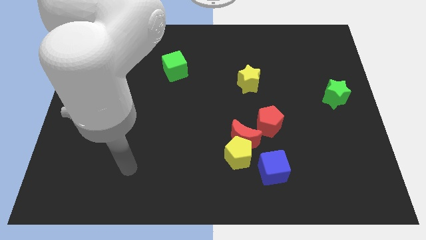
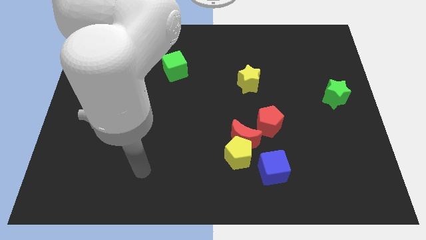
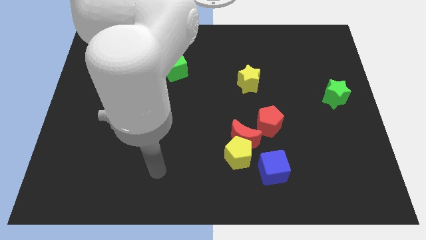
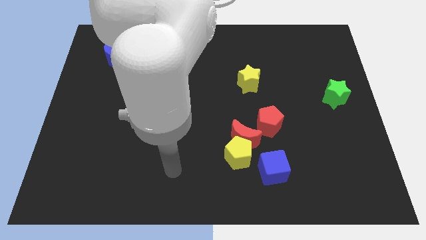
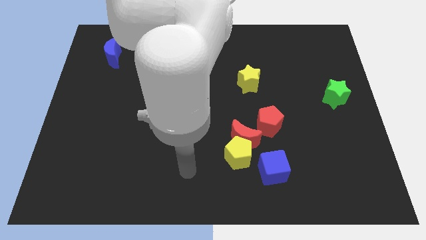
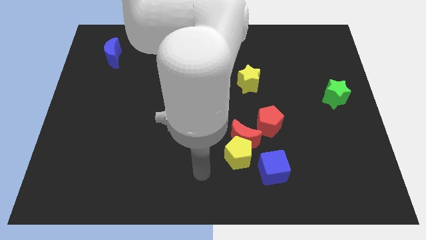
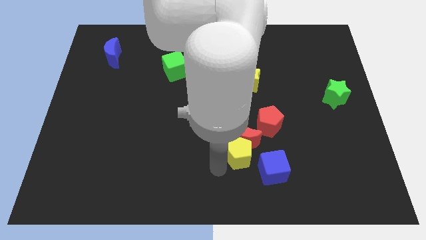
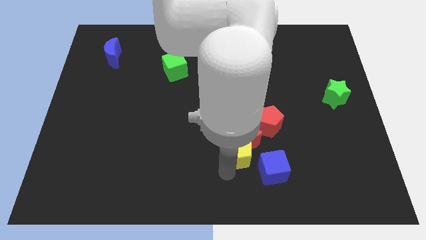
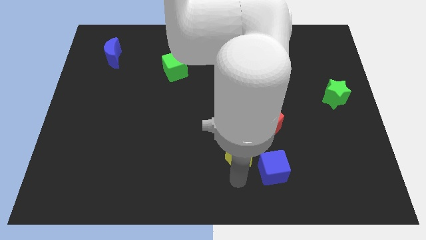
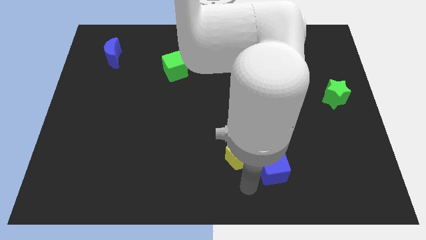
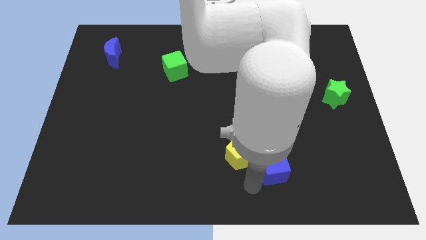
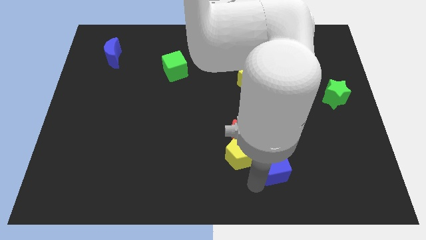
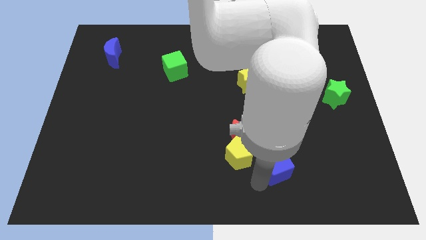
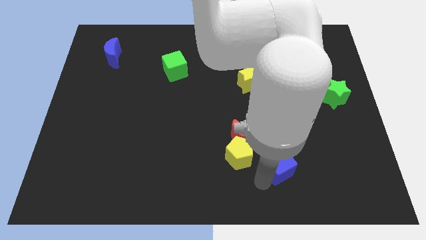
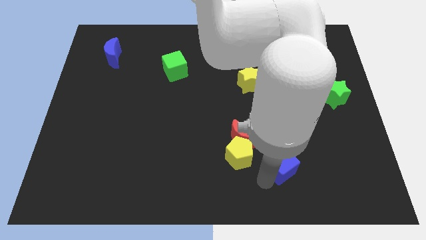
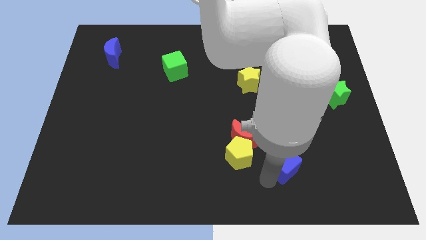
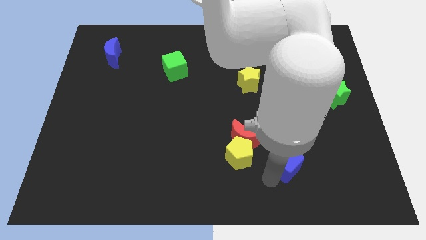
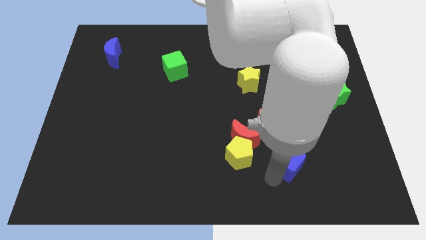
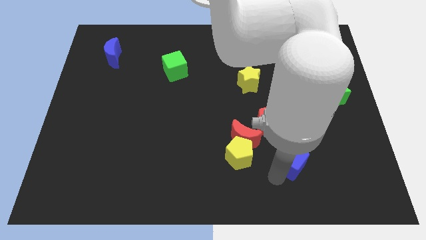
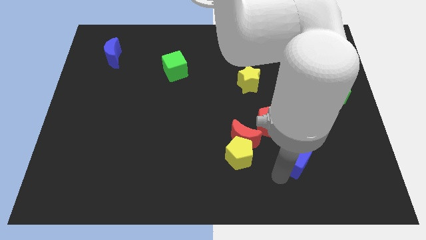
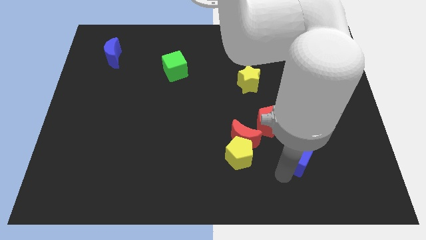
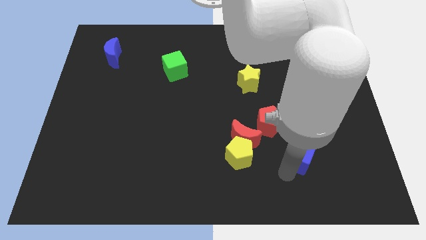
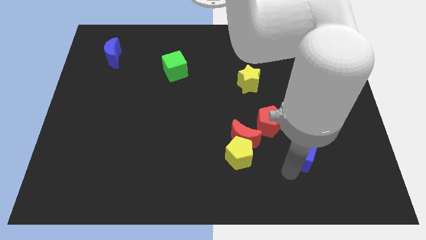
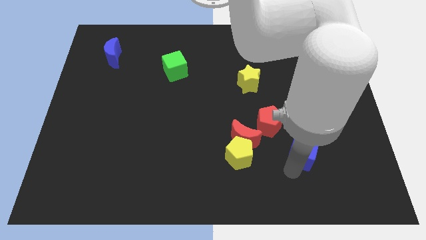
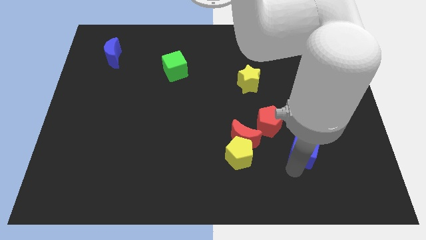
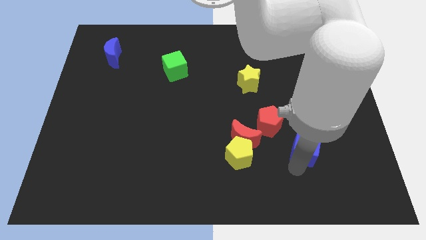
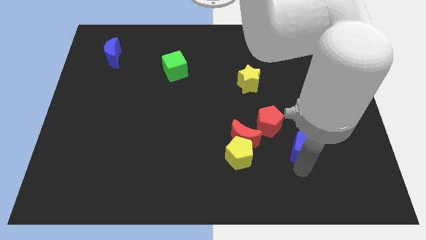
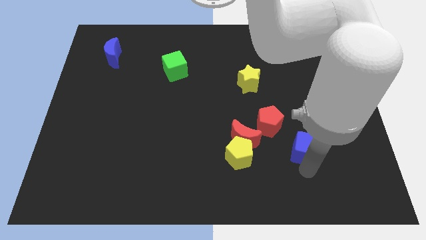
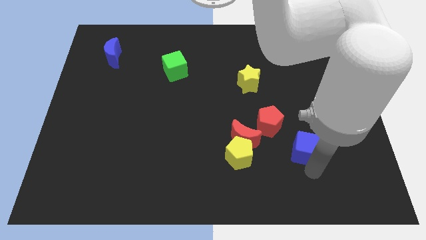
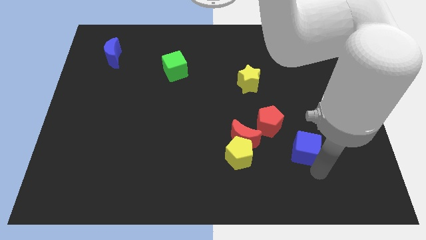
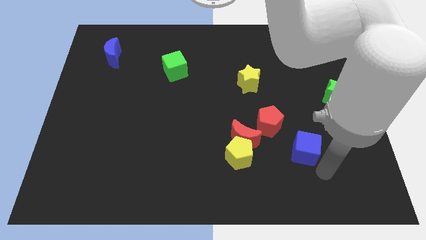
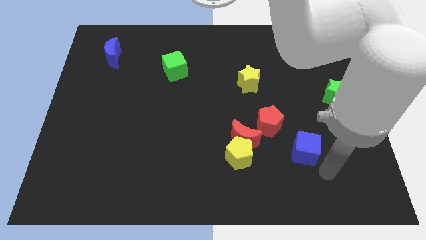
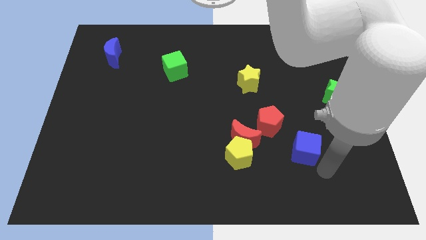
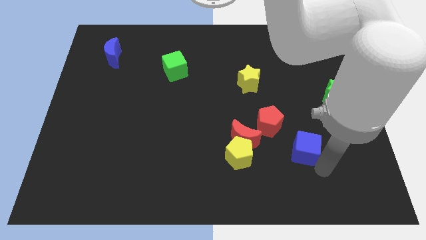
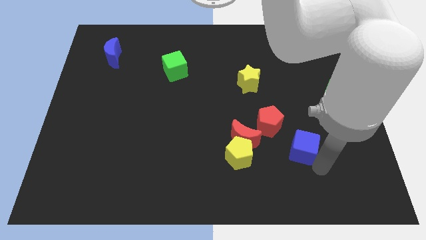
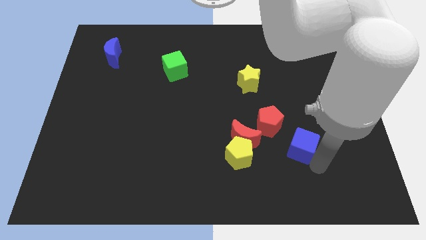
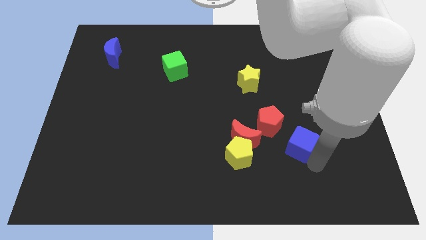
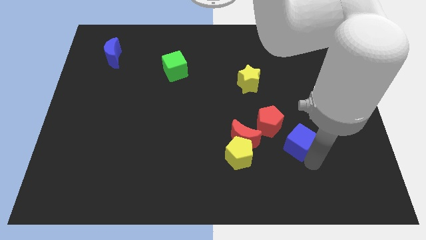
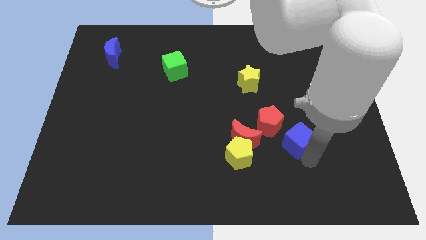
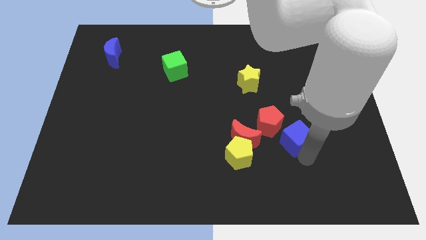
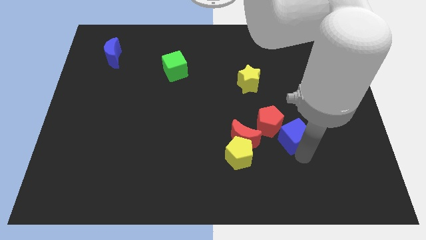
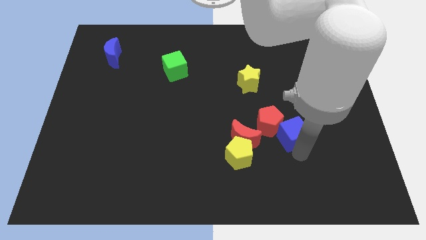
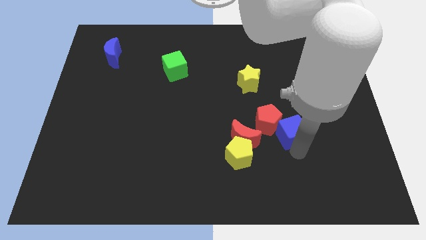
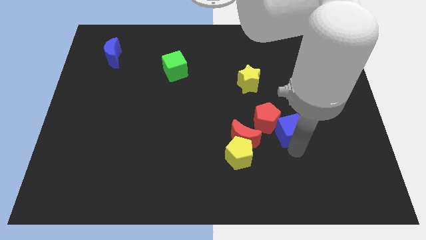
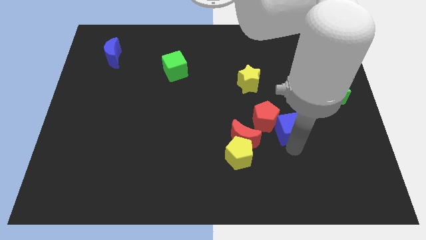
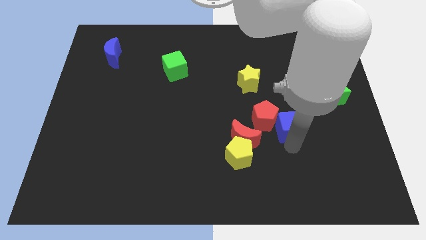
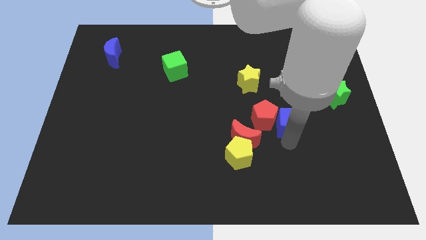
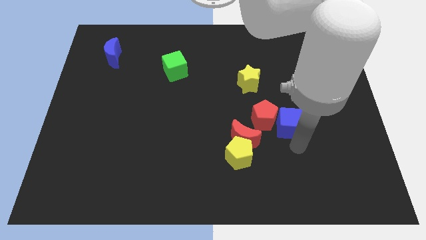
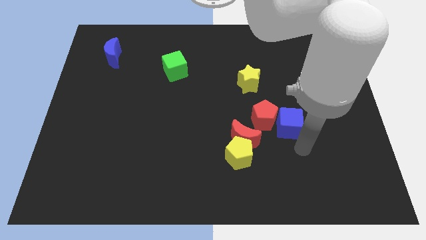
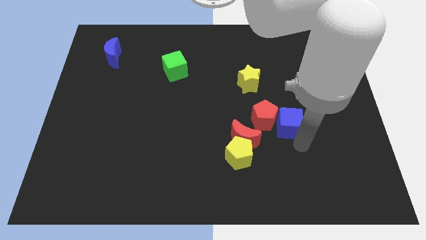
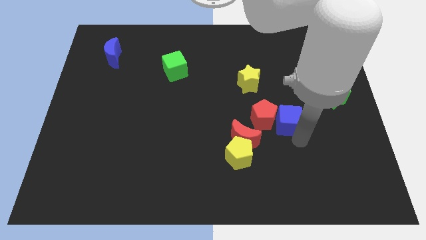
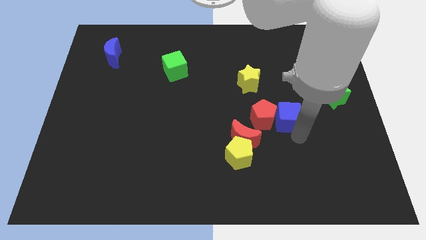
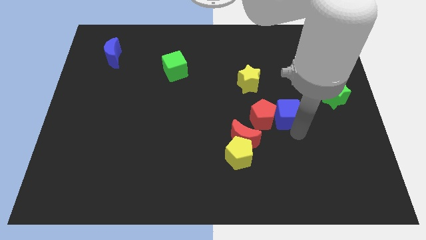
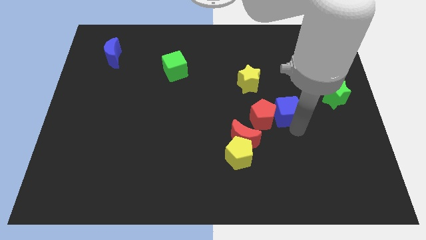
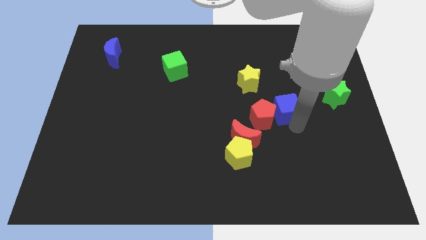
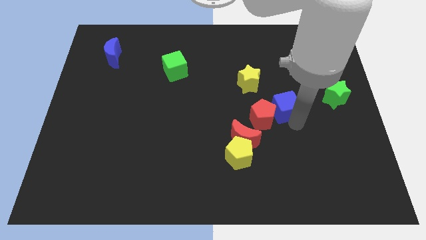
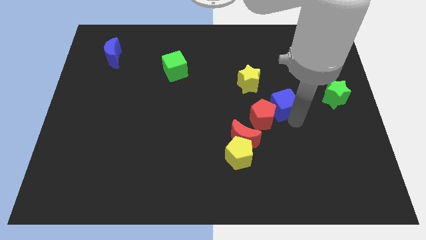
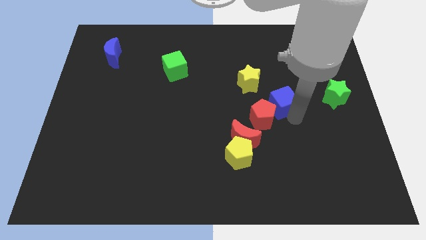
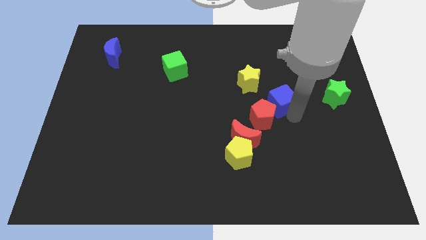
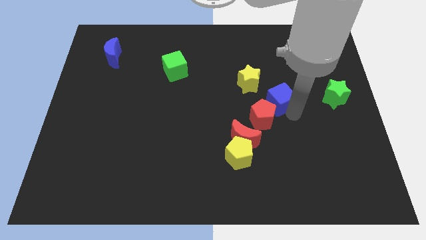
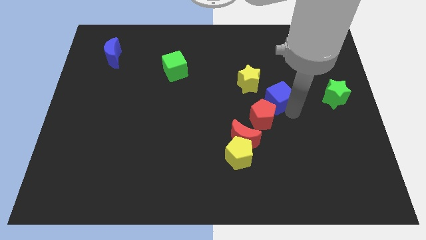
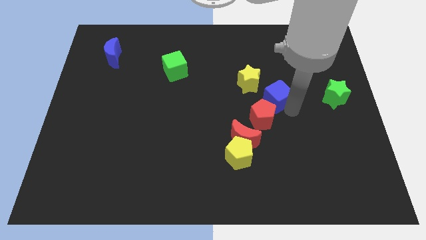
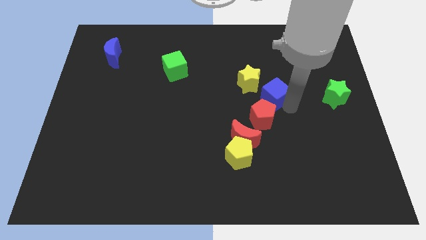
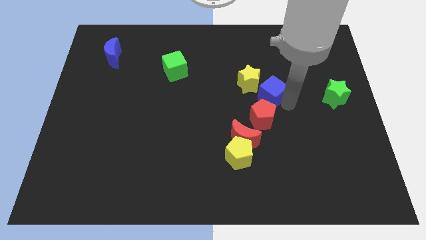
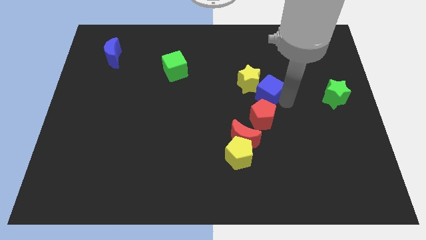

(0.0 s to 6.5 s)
slide the blue cube close to the yellow star

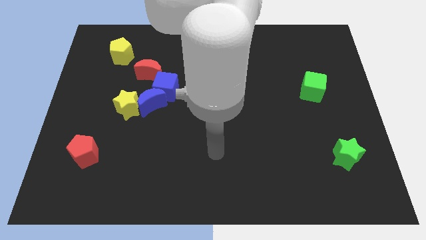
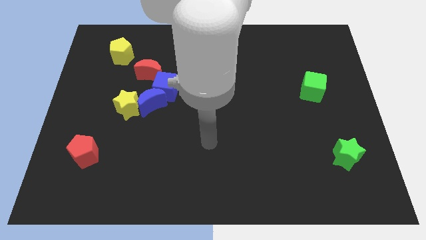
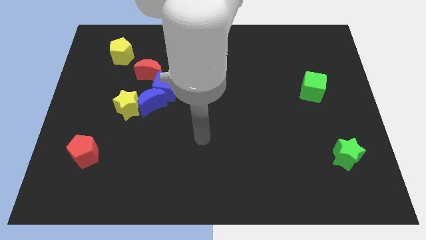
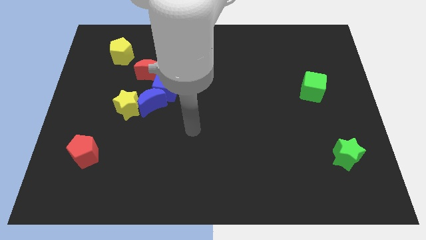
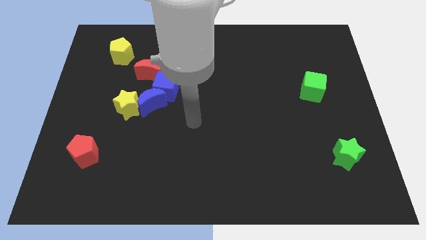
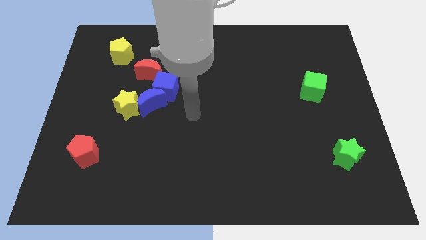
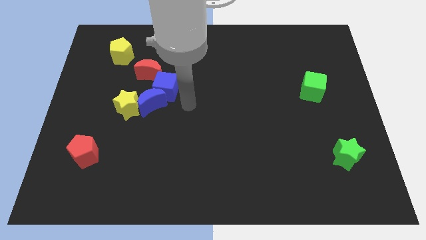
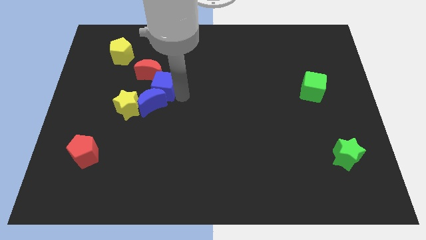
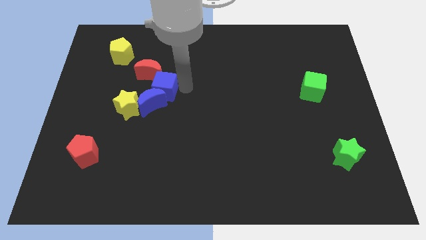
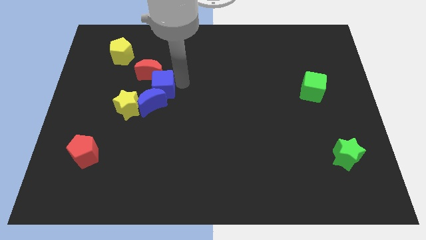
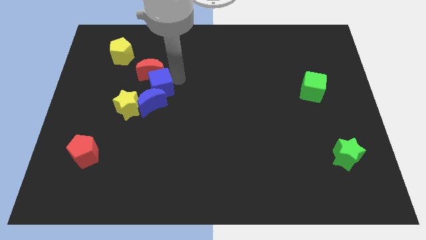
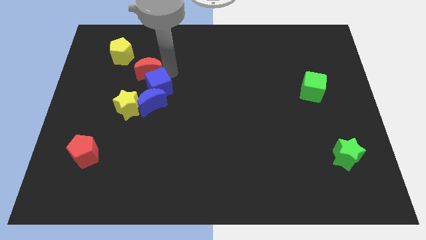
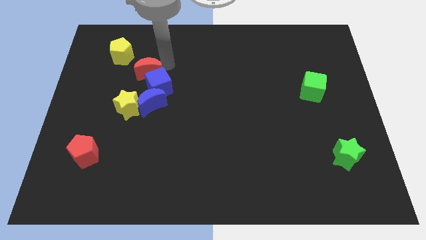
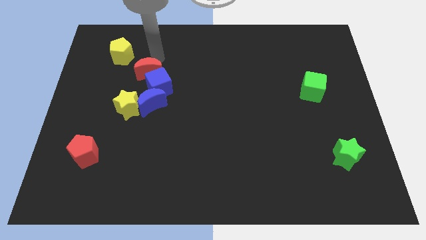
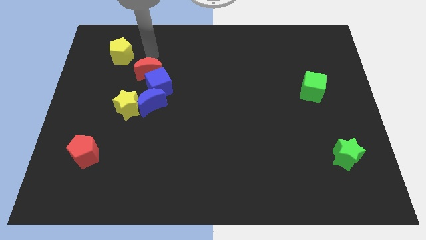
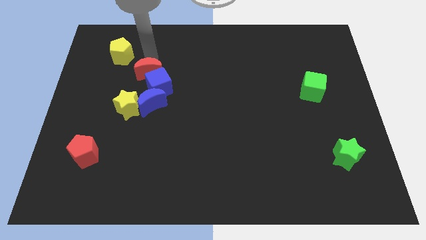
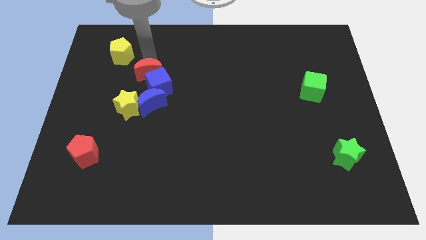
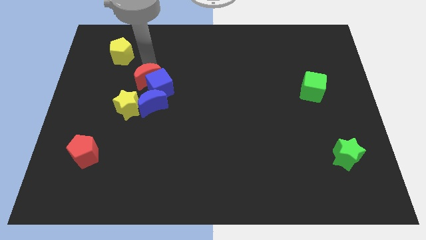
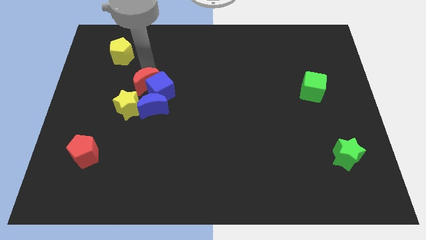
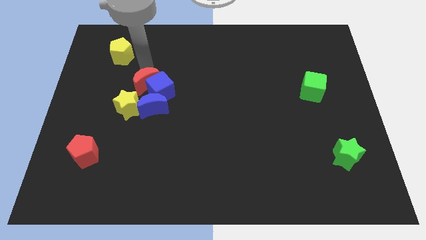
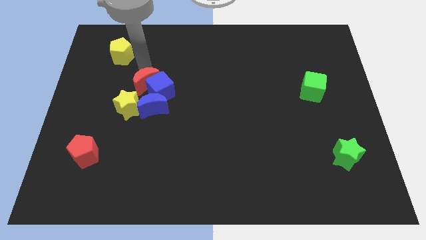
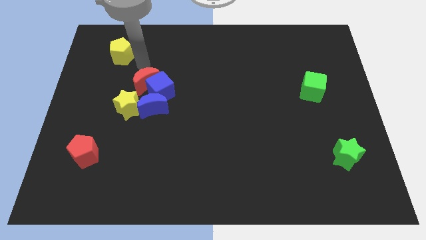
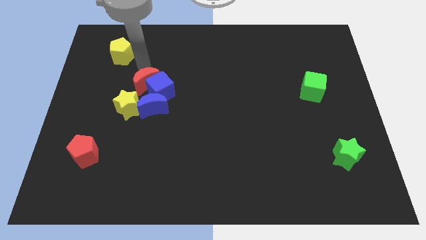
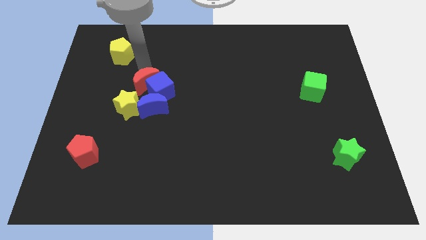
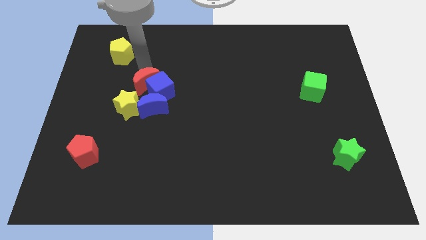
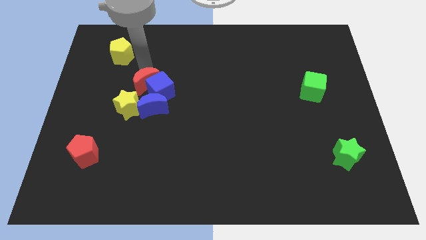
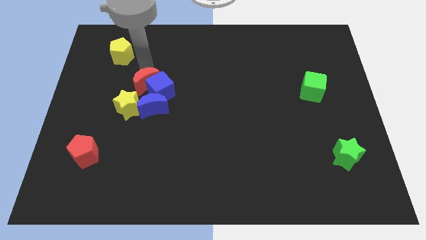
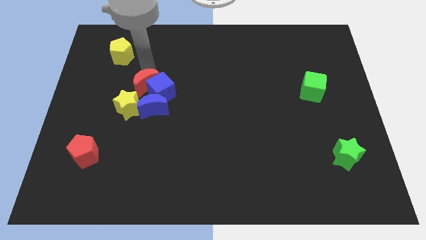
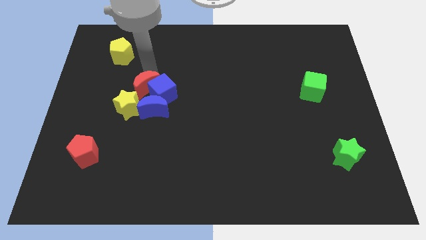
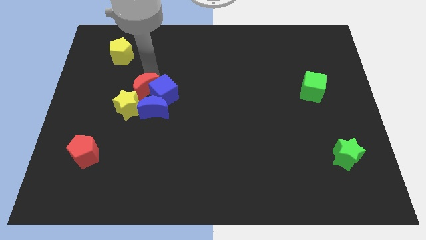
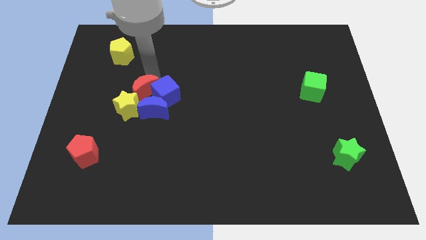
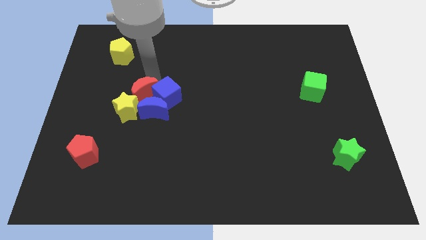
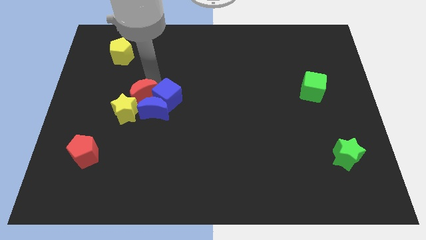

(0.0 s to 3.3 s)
push the red moon towards the blue moon
